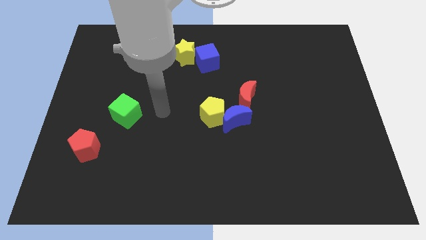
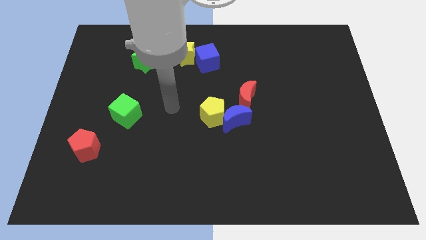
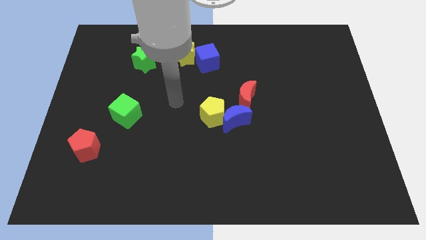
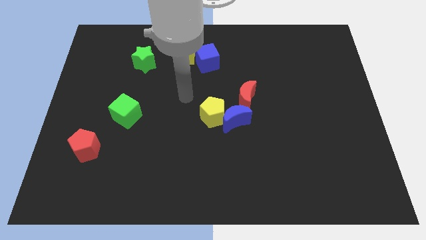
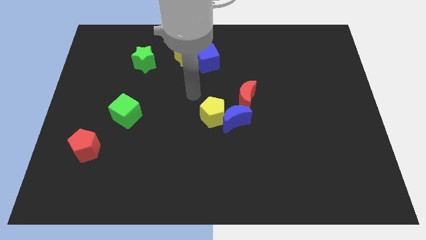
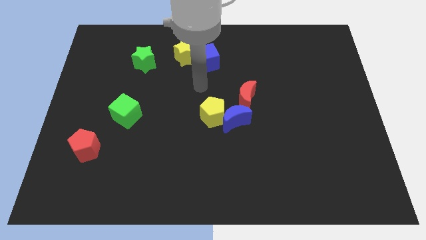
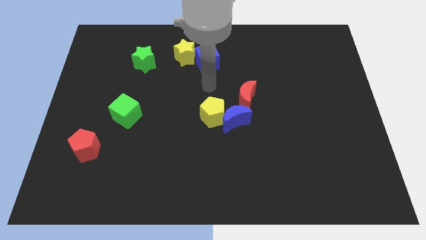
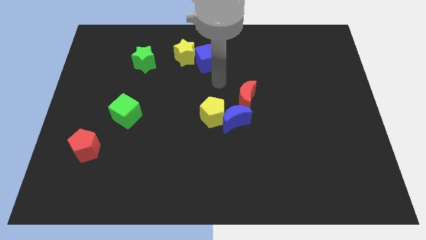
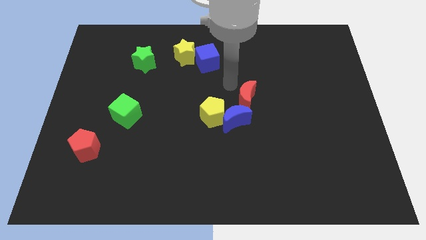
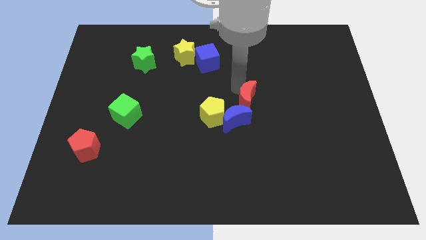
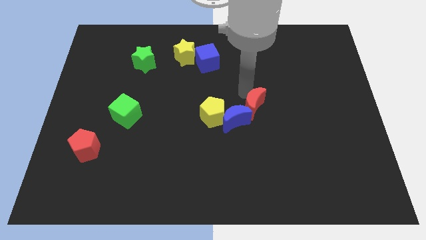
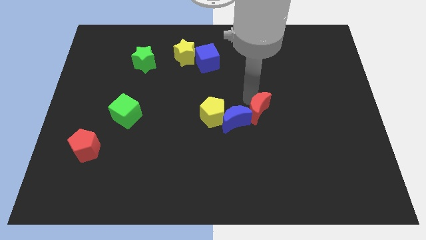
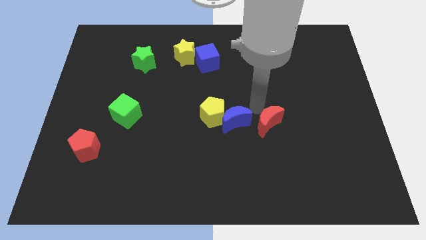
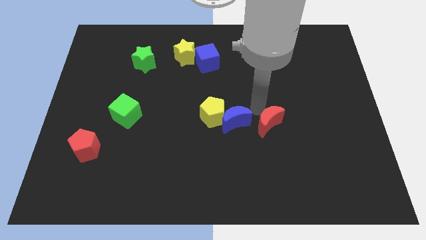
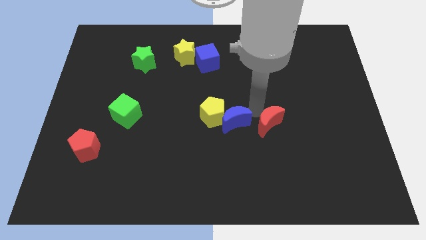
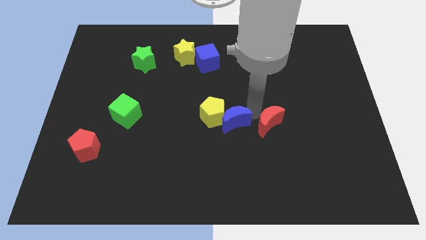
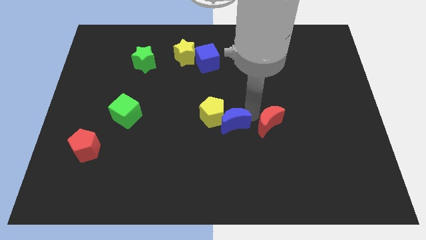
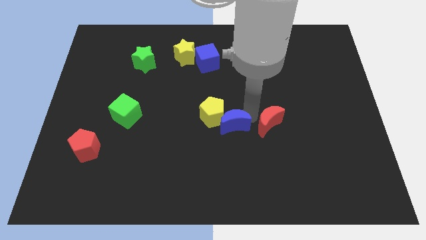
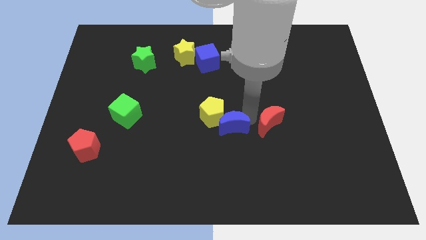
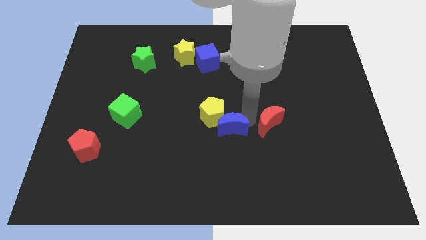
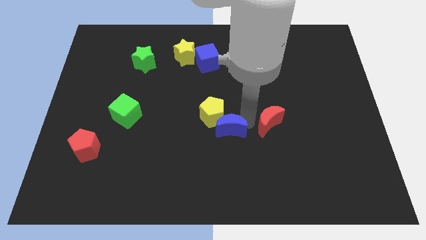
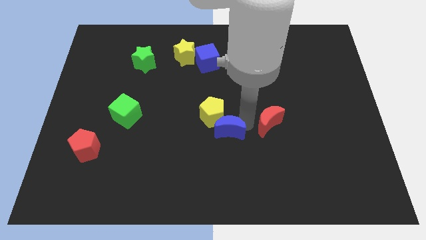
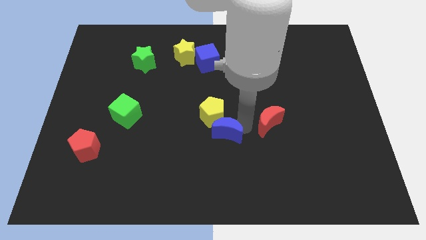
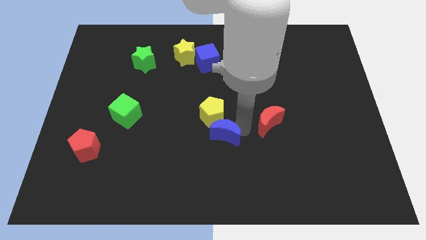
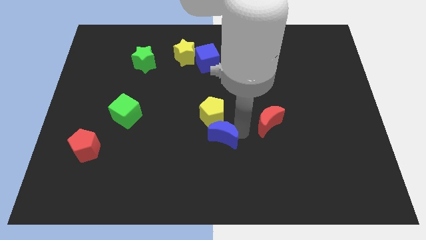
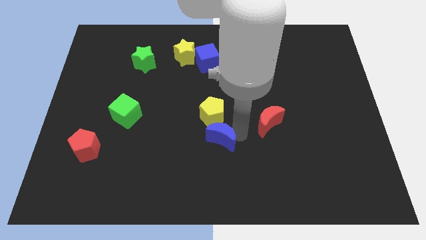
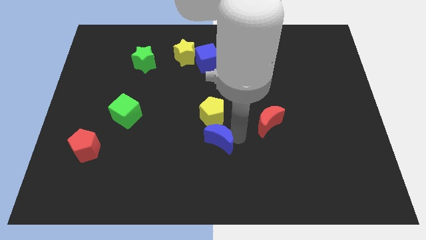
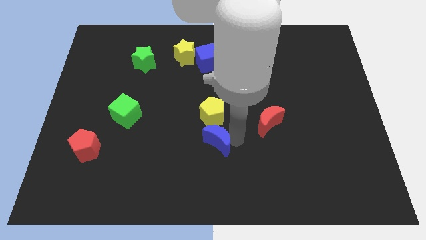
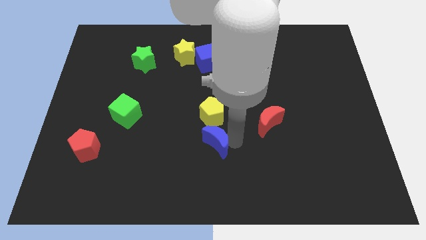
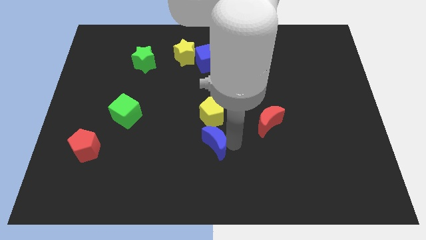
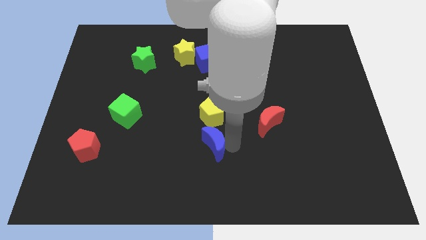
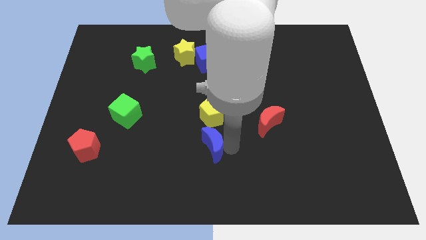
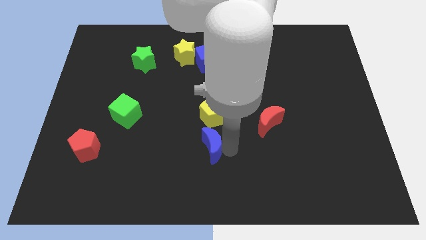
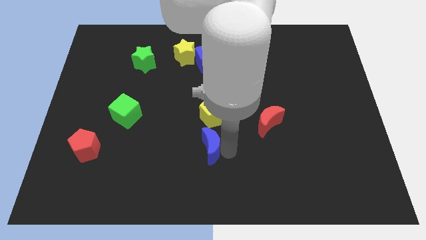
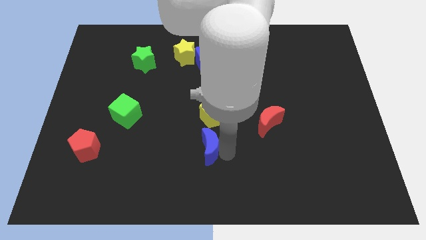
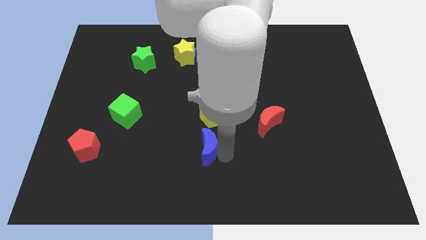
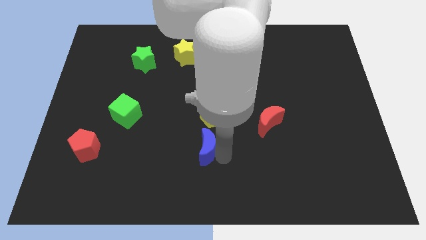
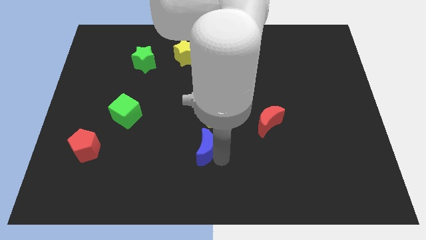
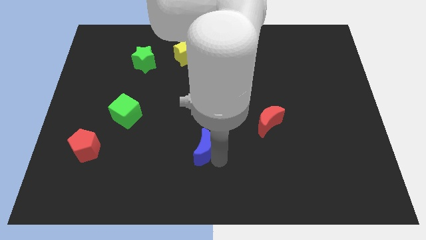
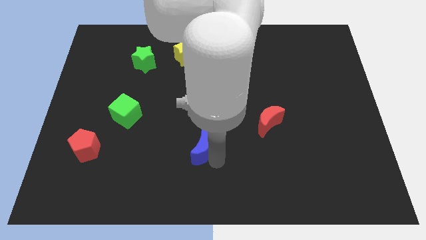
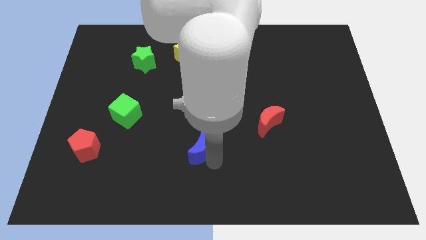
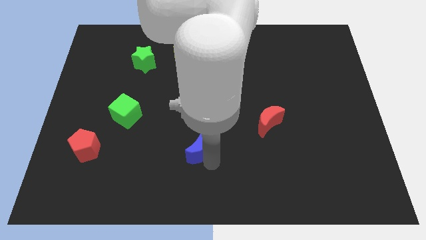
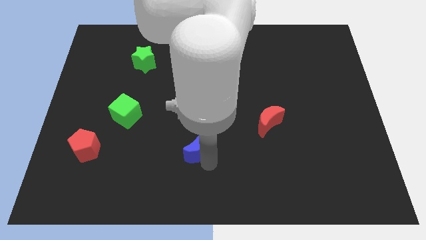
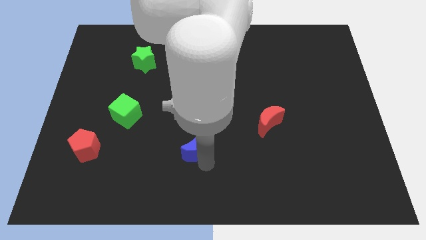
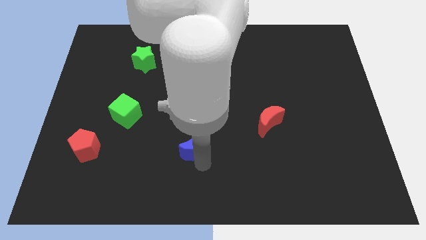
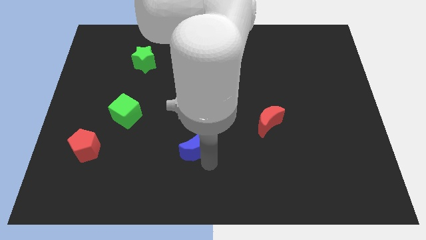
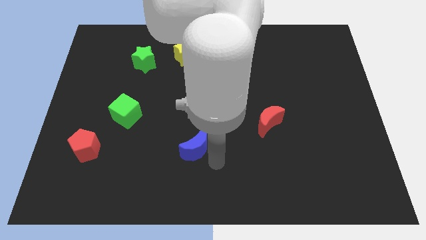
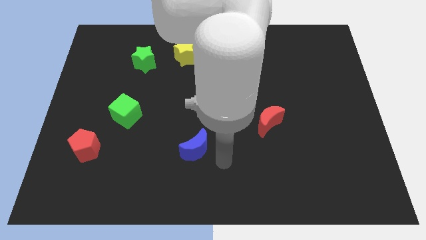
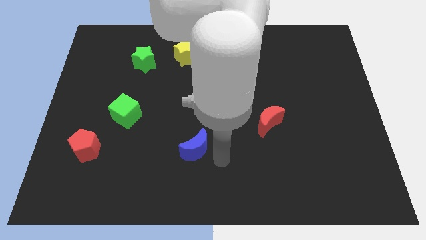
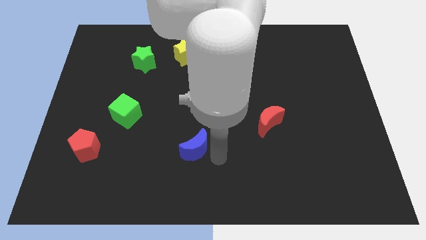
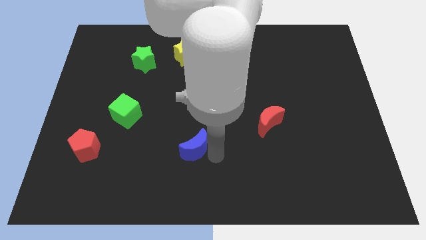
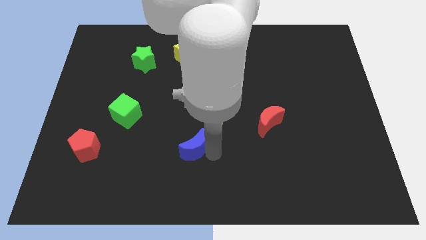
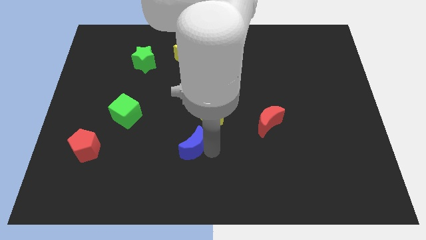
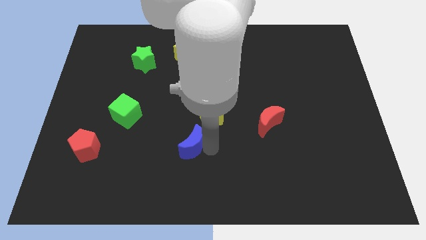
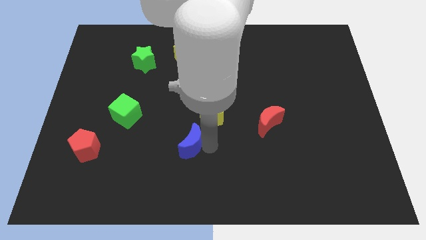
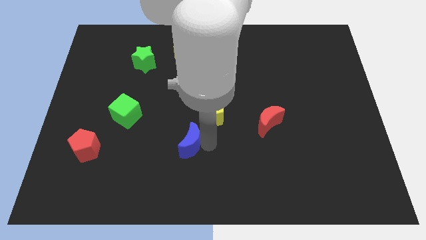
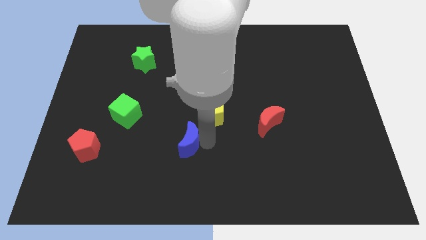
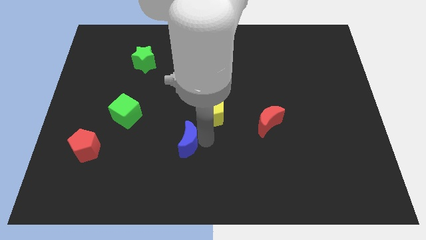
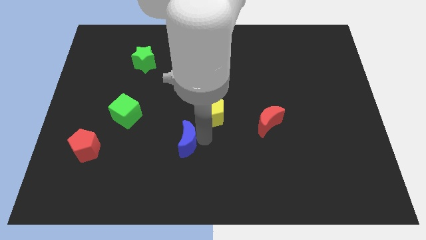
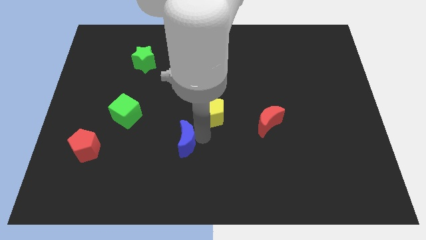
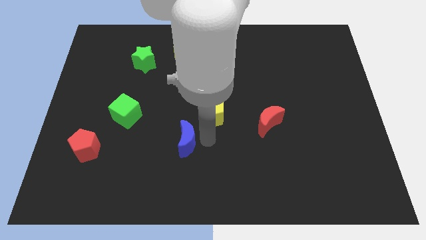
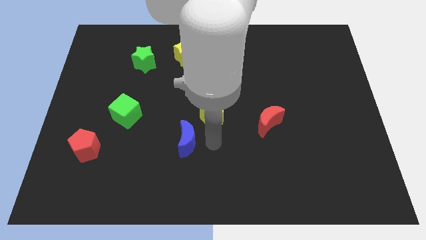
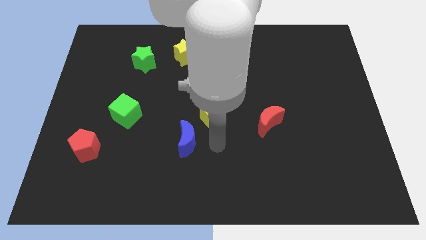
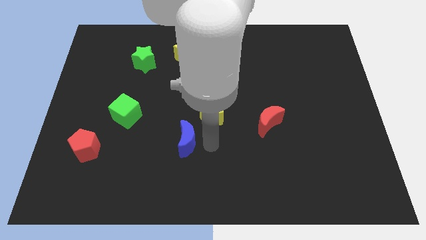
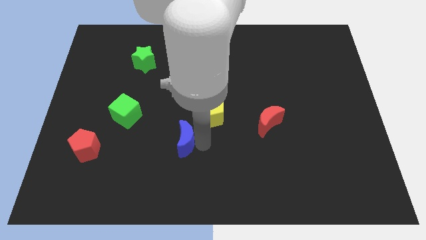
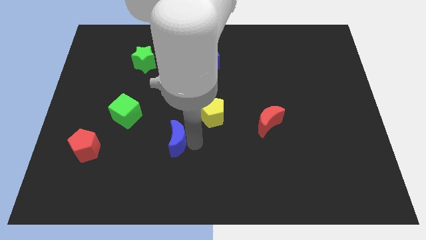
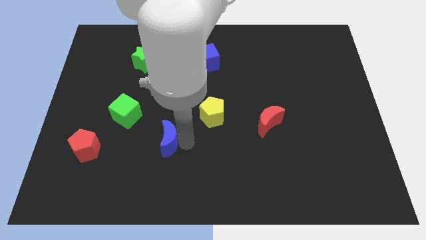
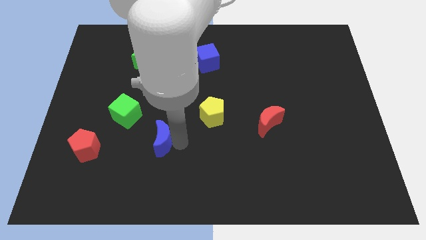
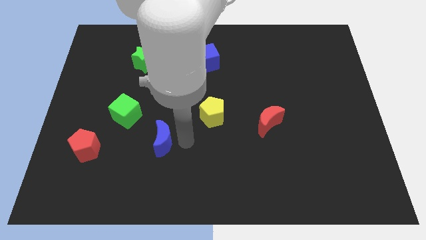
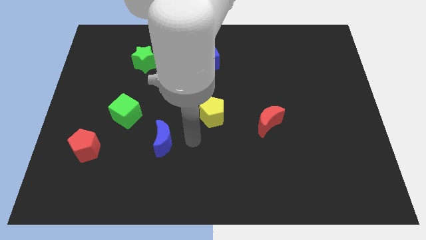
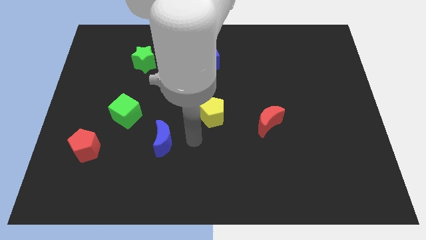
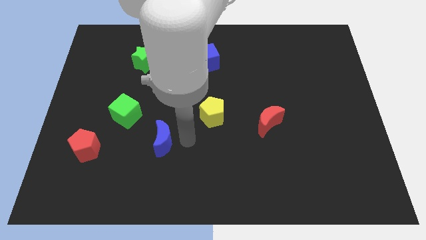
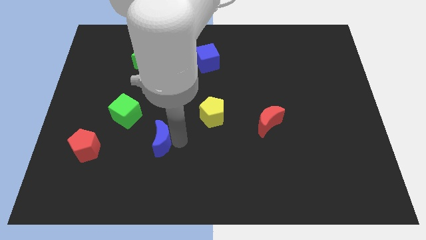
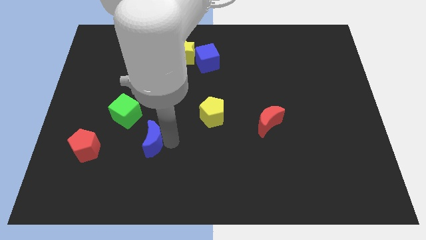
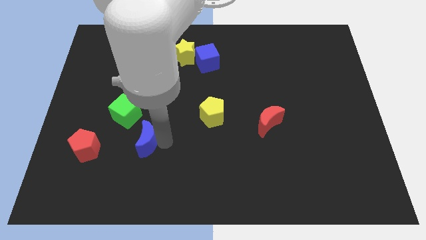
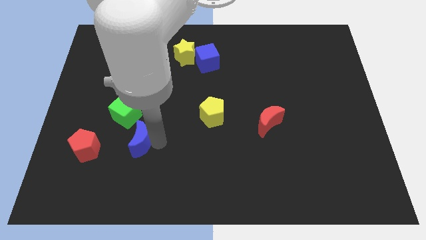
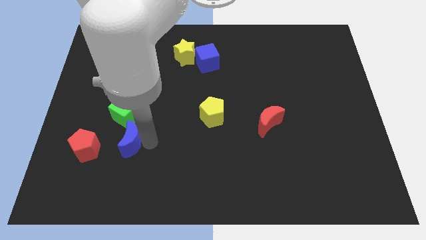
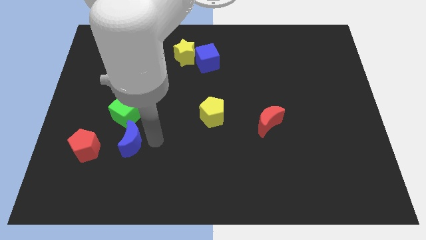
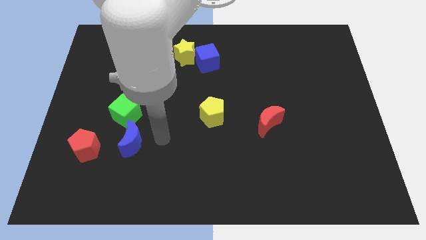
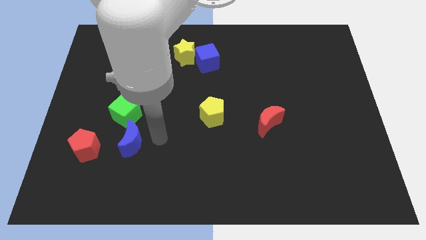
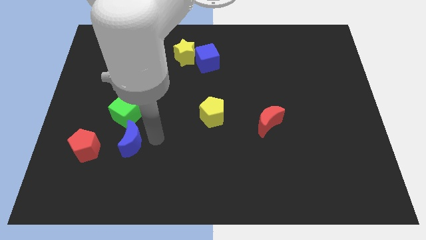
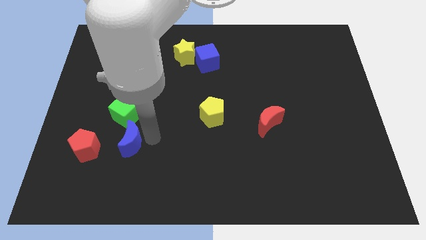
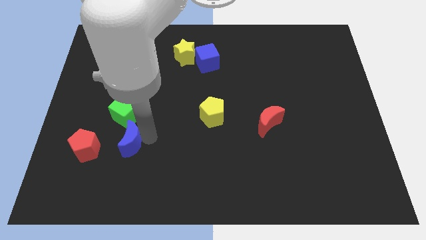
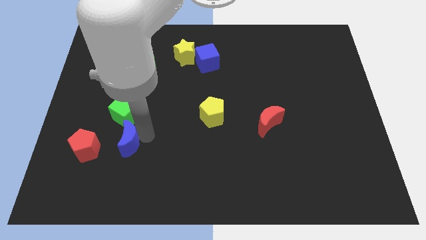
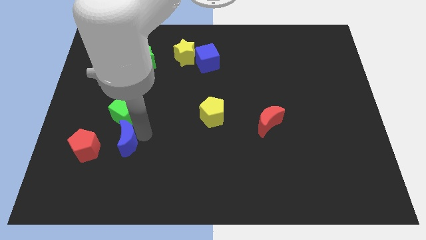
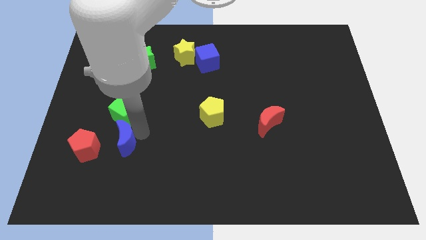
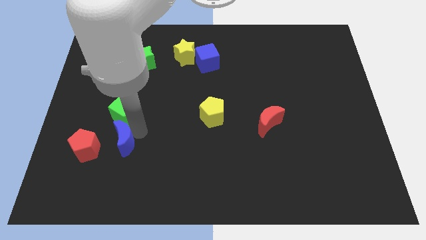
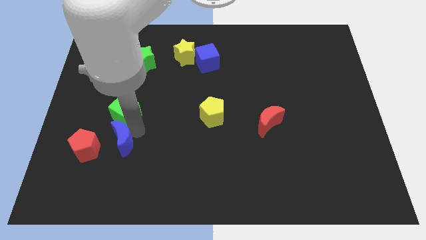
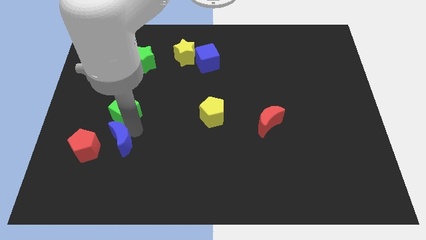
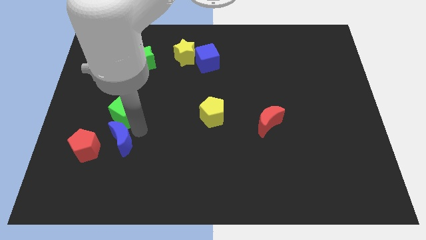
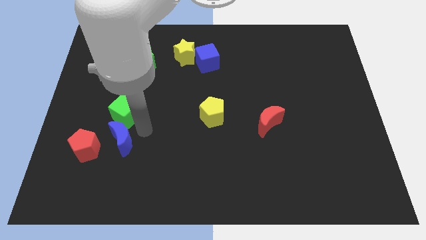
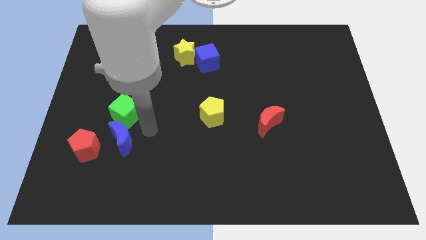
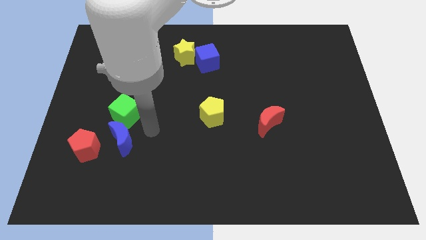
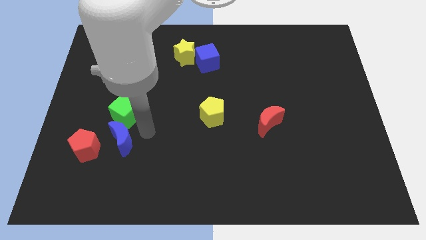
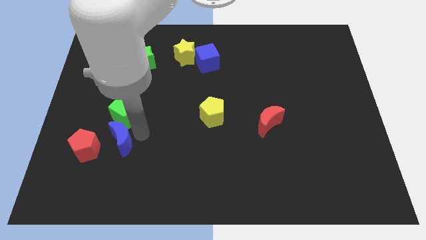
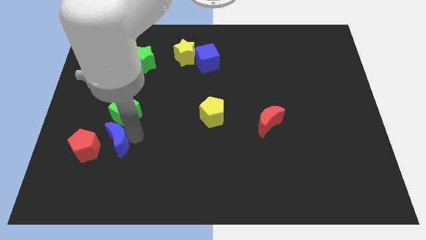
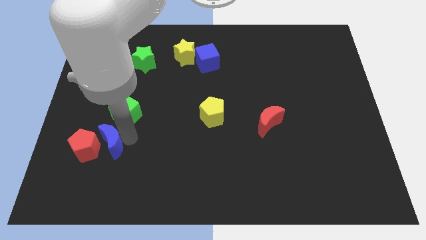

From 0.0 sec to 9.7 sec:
push the blue moon close to the red pentagon
